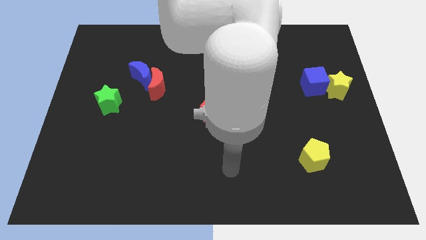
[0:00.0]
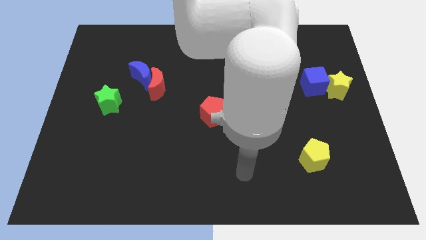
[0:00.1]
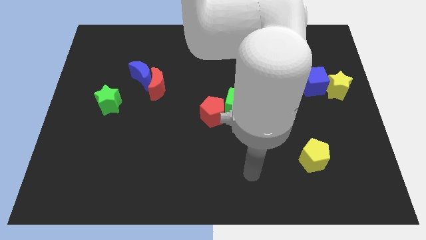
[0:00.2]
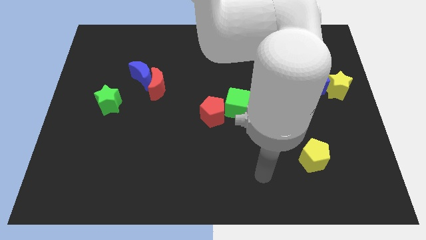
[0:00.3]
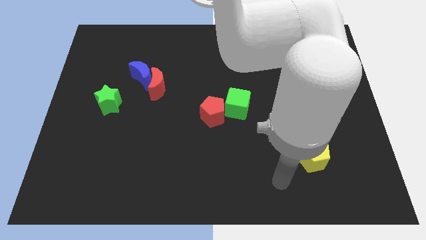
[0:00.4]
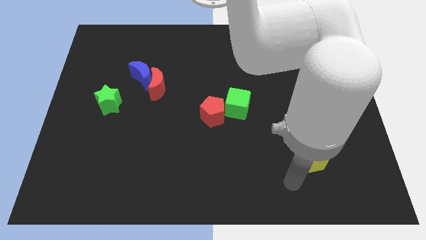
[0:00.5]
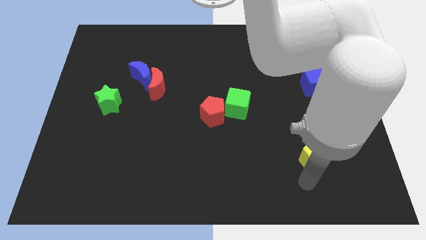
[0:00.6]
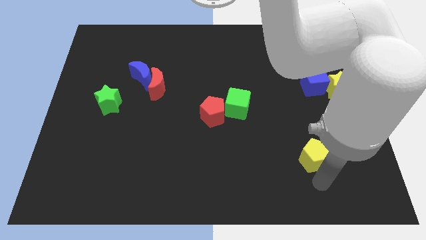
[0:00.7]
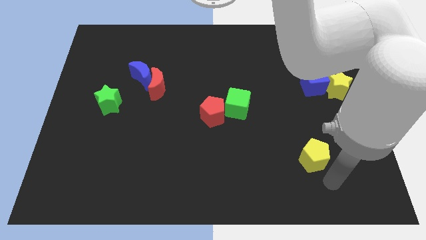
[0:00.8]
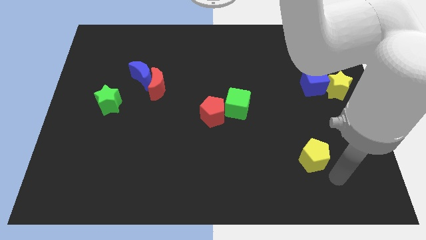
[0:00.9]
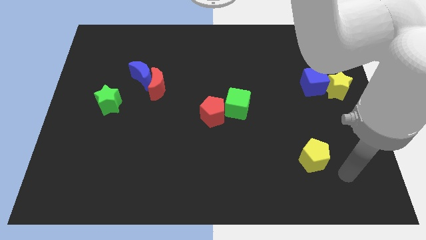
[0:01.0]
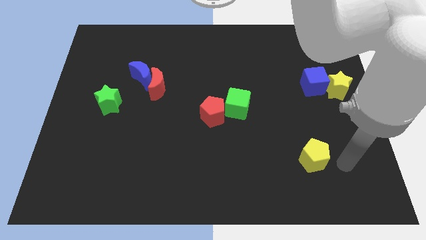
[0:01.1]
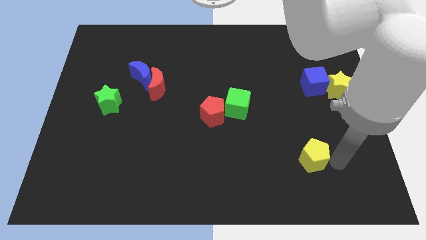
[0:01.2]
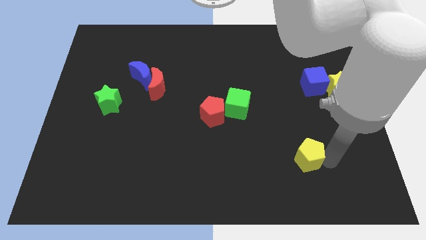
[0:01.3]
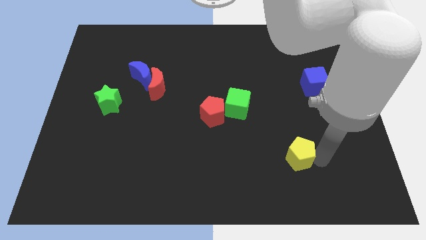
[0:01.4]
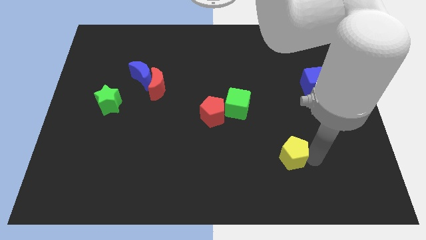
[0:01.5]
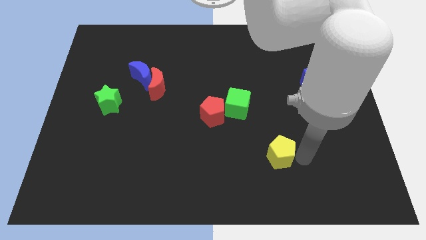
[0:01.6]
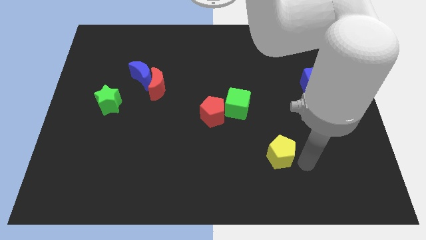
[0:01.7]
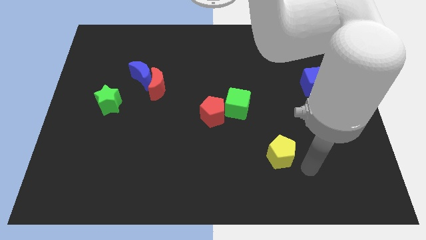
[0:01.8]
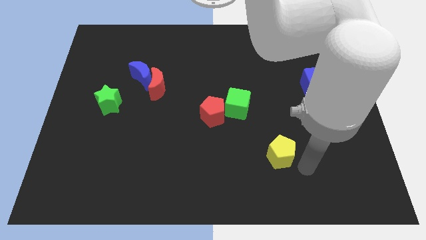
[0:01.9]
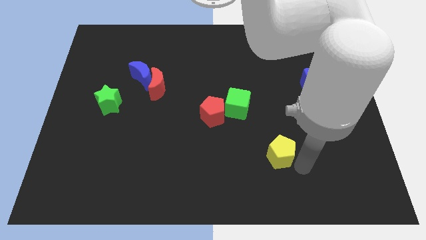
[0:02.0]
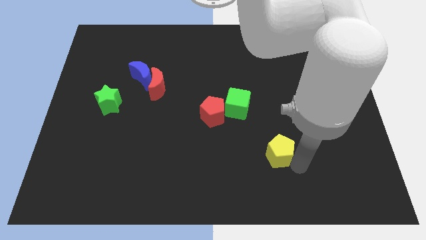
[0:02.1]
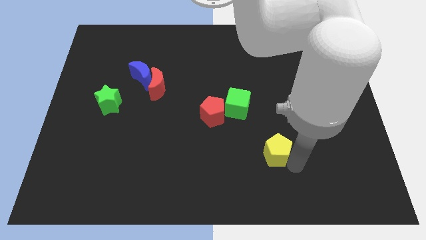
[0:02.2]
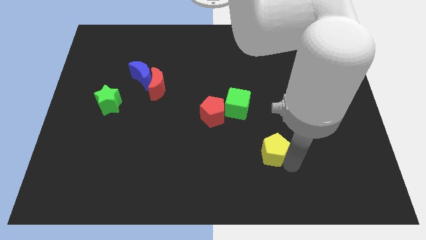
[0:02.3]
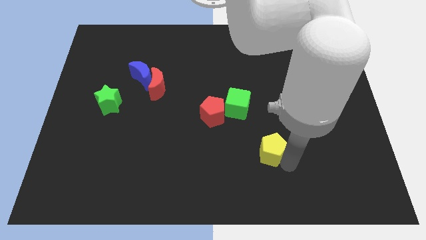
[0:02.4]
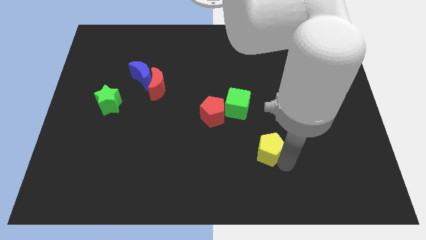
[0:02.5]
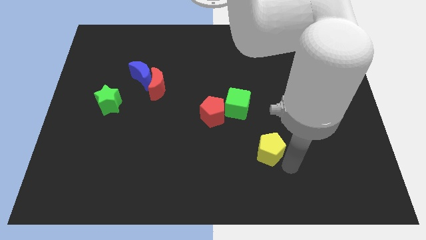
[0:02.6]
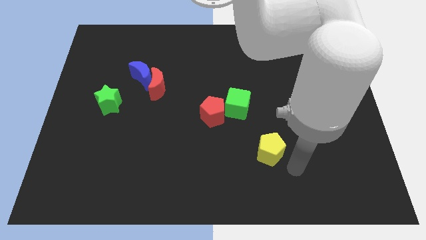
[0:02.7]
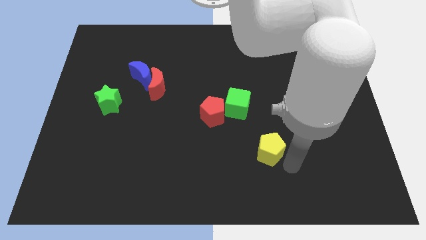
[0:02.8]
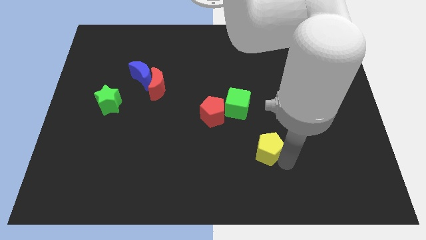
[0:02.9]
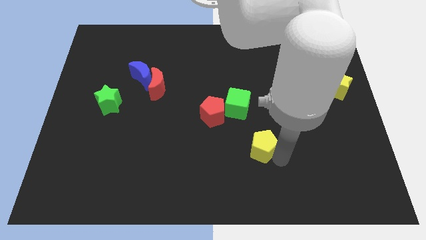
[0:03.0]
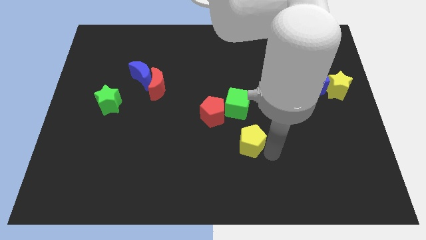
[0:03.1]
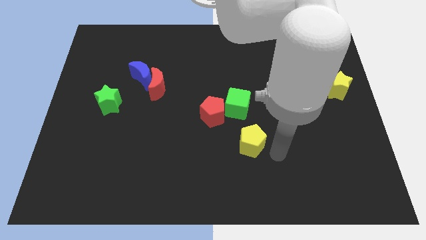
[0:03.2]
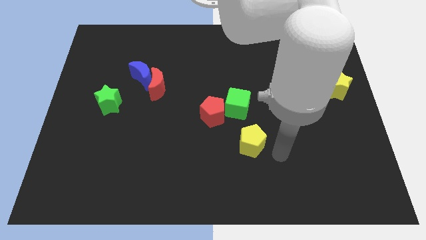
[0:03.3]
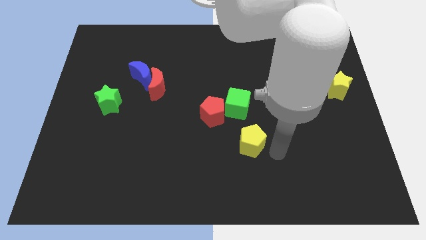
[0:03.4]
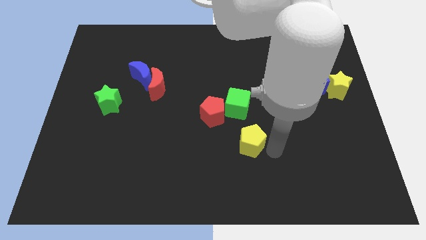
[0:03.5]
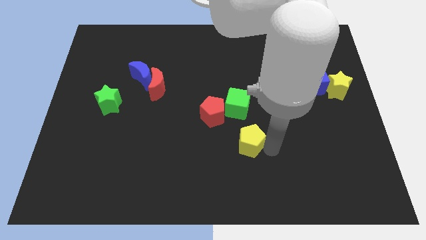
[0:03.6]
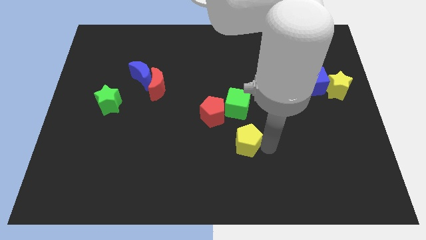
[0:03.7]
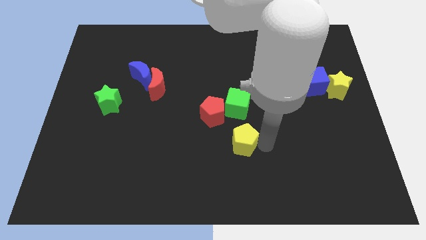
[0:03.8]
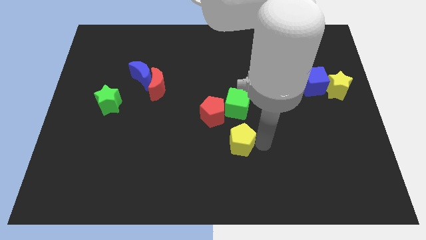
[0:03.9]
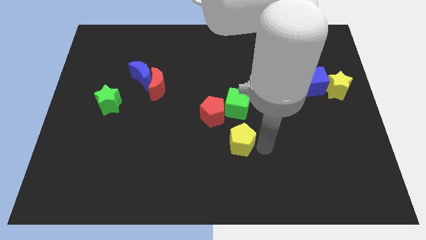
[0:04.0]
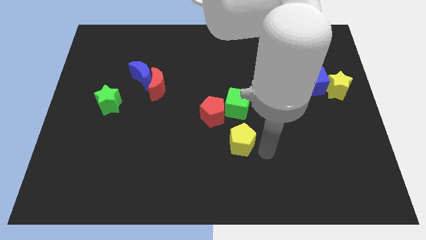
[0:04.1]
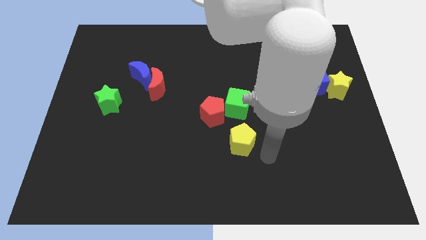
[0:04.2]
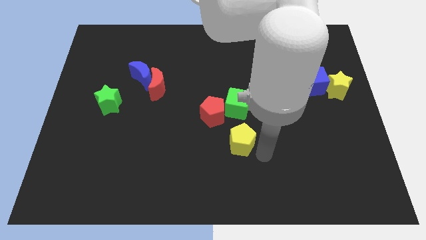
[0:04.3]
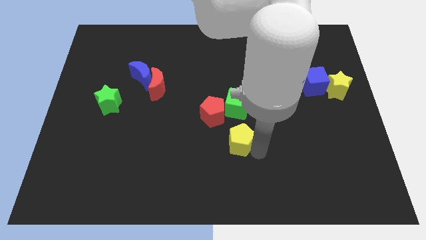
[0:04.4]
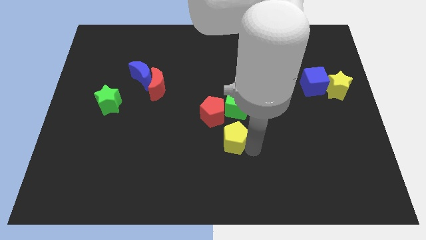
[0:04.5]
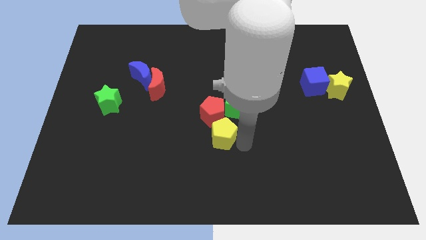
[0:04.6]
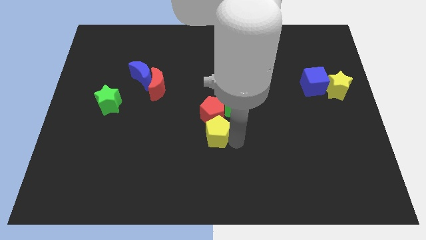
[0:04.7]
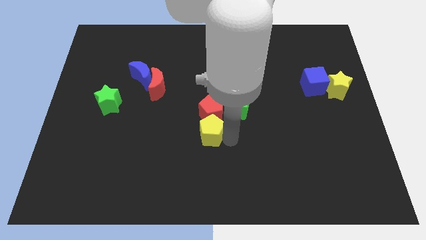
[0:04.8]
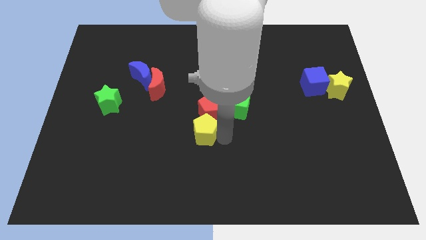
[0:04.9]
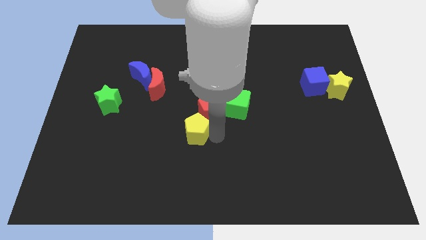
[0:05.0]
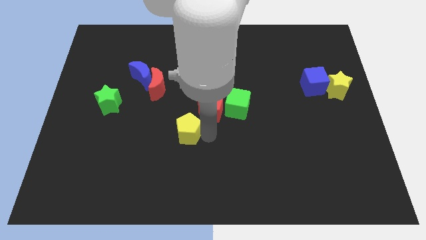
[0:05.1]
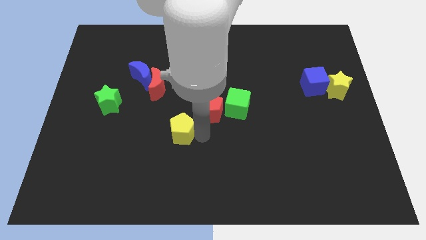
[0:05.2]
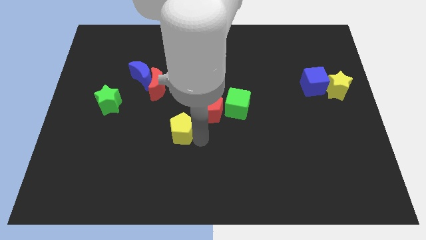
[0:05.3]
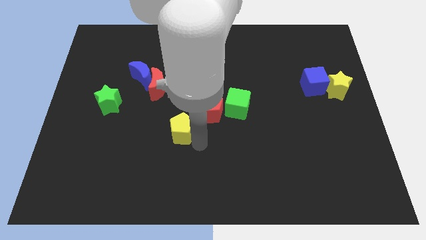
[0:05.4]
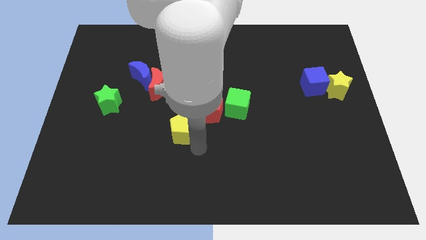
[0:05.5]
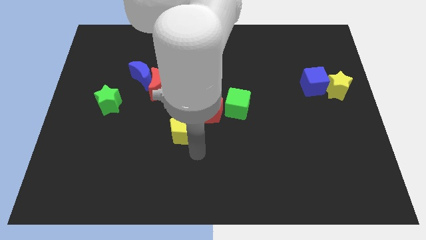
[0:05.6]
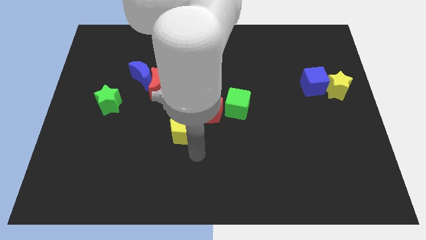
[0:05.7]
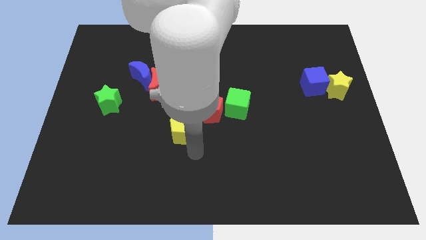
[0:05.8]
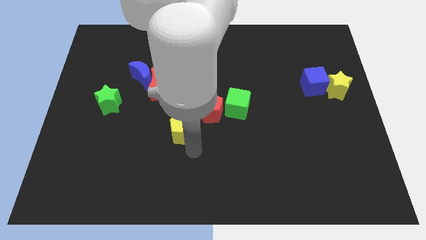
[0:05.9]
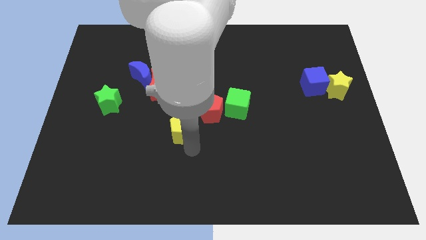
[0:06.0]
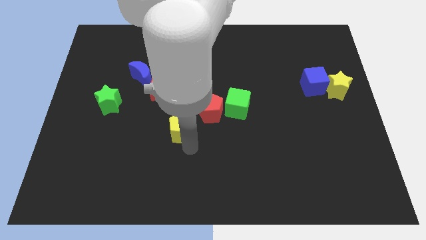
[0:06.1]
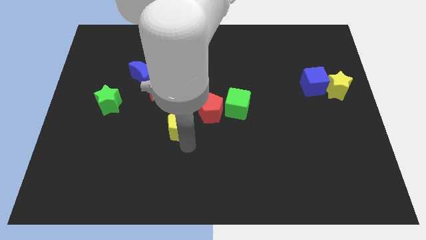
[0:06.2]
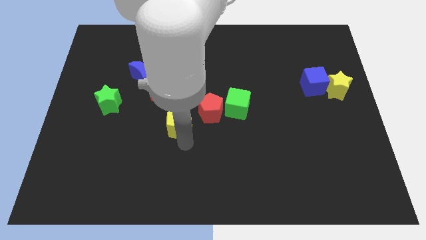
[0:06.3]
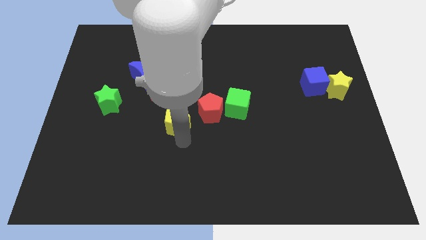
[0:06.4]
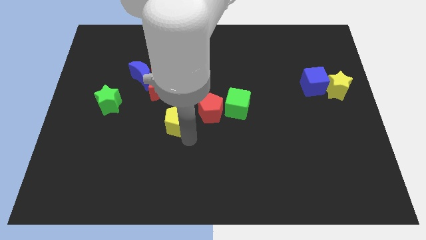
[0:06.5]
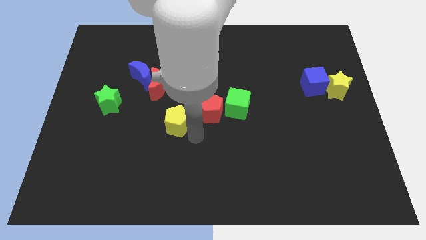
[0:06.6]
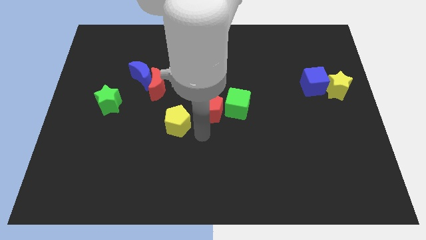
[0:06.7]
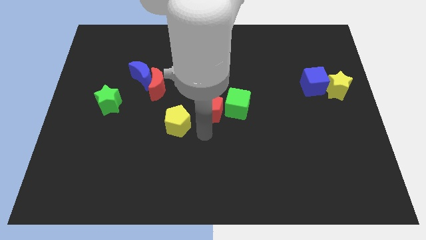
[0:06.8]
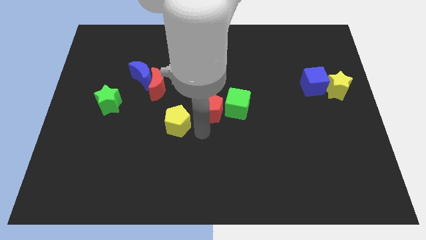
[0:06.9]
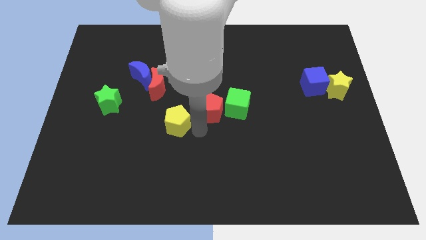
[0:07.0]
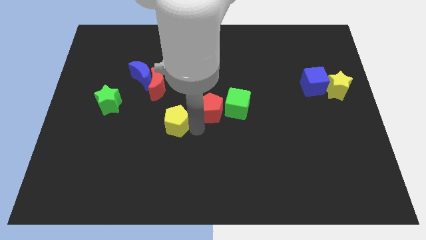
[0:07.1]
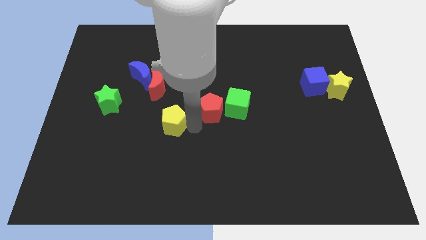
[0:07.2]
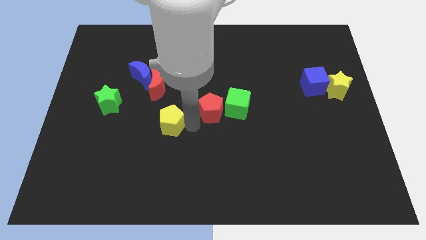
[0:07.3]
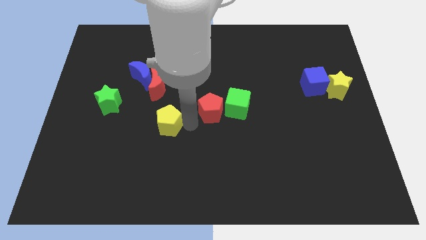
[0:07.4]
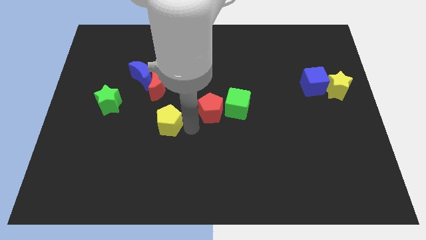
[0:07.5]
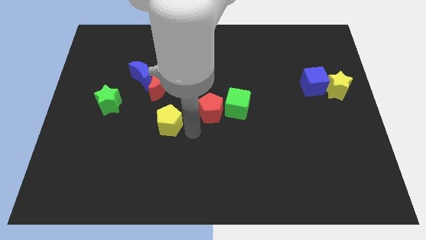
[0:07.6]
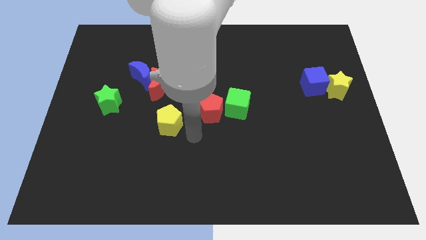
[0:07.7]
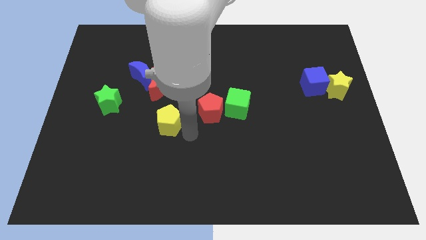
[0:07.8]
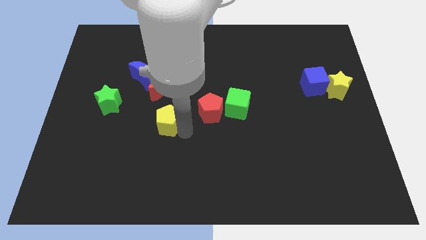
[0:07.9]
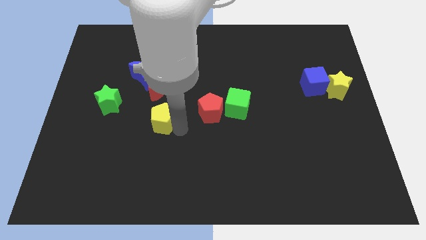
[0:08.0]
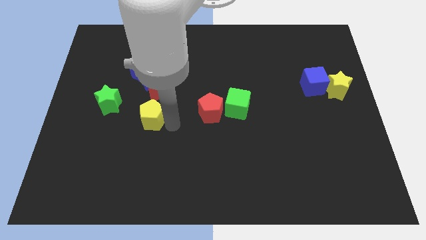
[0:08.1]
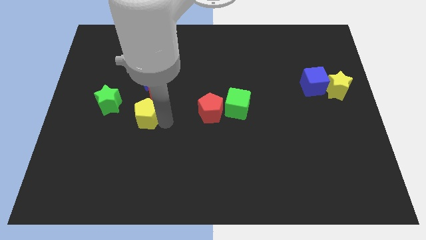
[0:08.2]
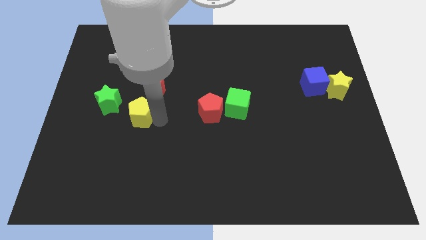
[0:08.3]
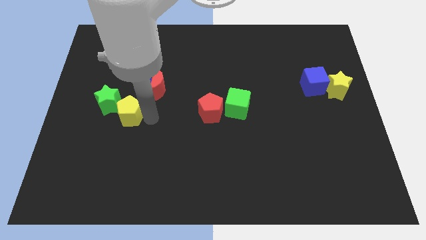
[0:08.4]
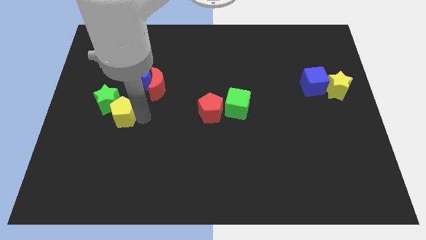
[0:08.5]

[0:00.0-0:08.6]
move the yellow pentagon towards the green star
